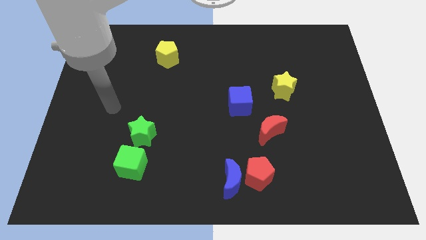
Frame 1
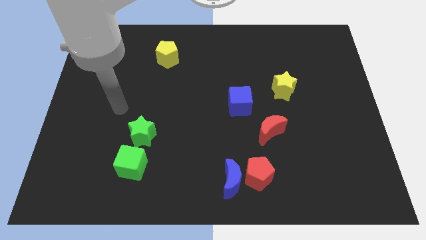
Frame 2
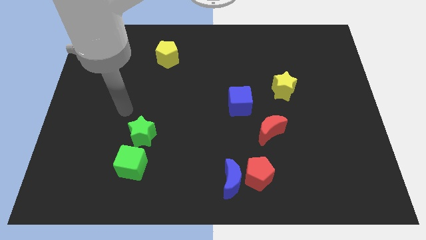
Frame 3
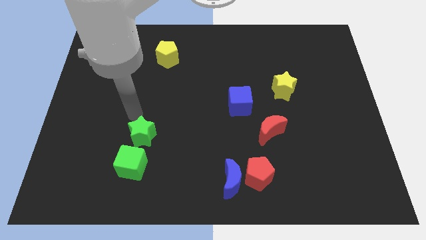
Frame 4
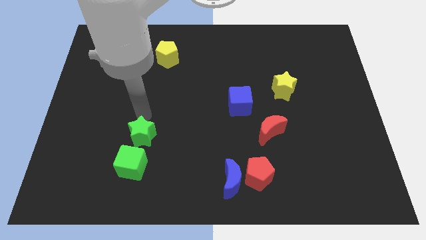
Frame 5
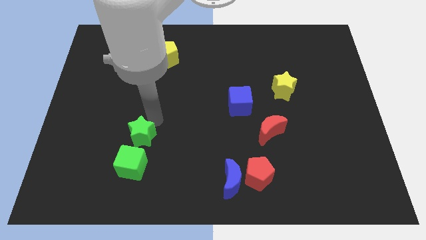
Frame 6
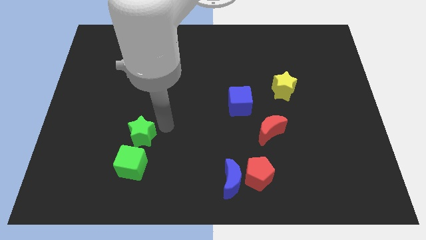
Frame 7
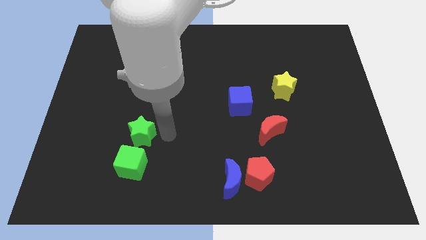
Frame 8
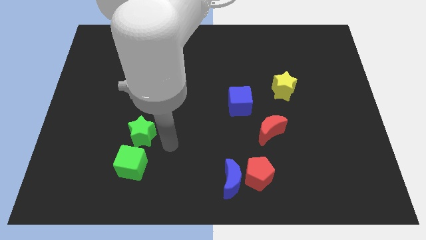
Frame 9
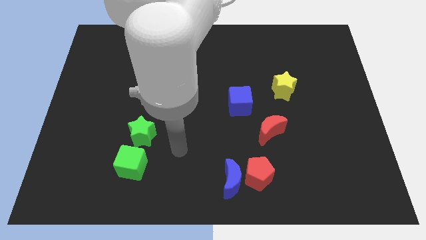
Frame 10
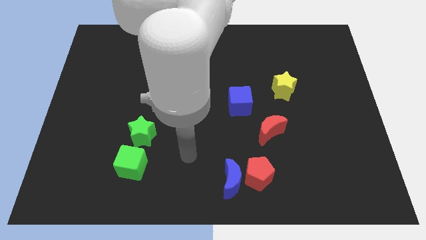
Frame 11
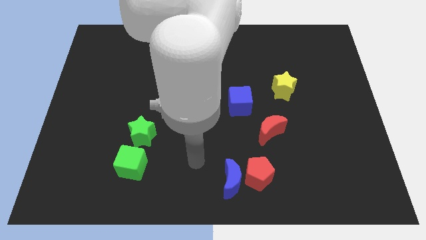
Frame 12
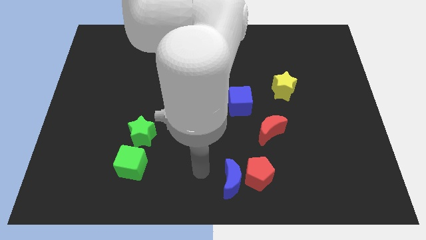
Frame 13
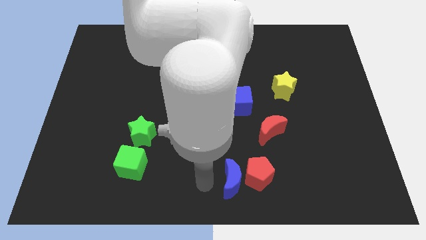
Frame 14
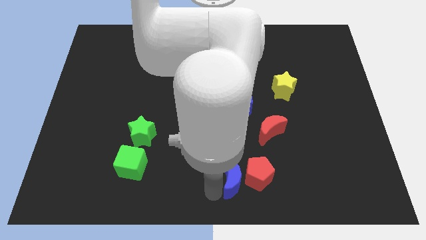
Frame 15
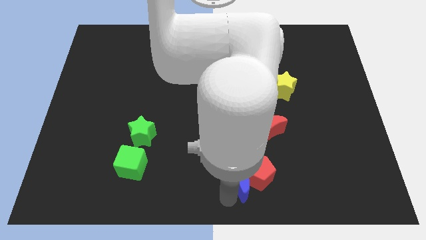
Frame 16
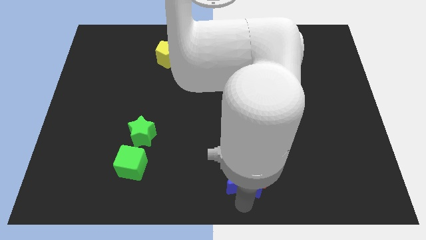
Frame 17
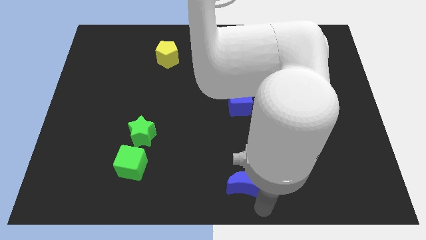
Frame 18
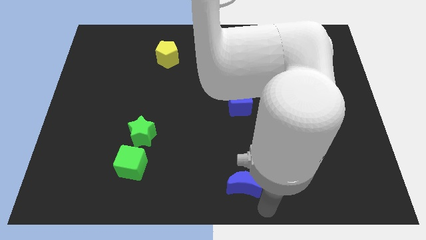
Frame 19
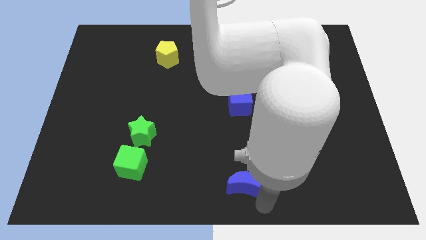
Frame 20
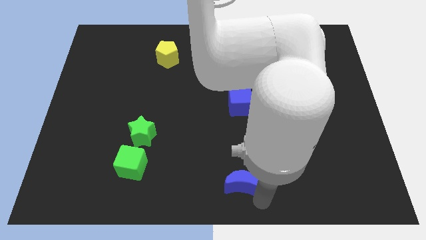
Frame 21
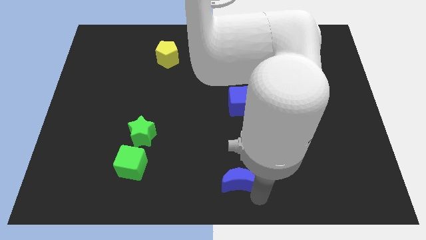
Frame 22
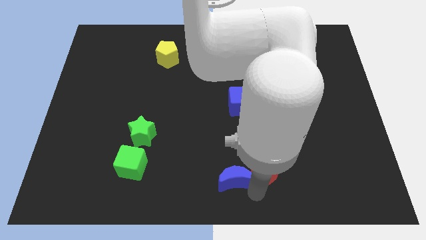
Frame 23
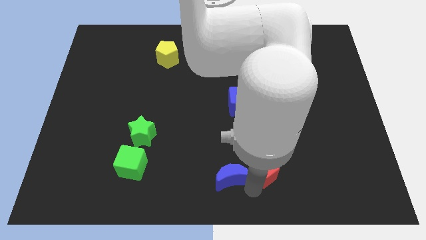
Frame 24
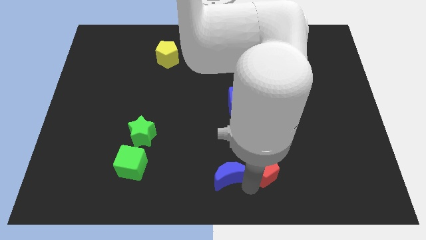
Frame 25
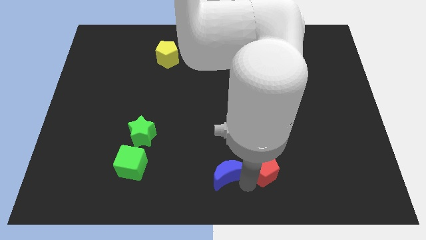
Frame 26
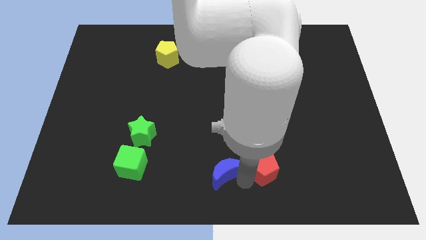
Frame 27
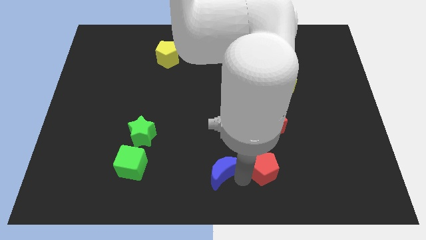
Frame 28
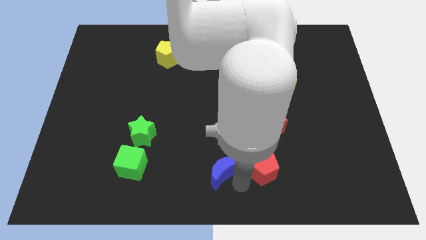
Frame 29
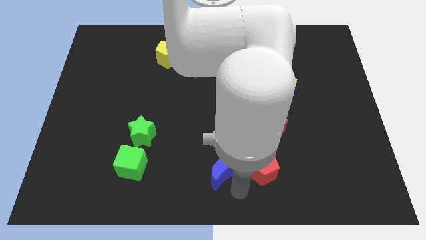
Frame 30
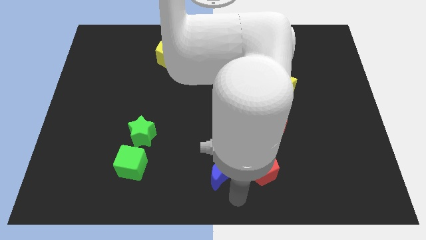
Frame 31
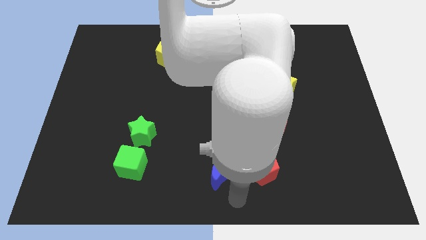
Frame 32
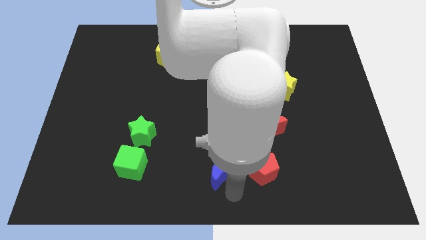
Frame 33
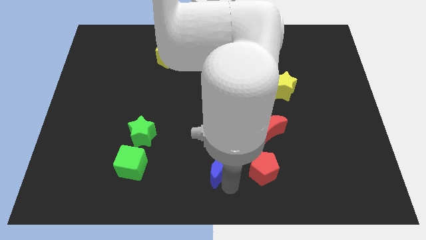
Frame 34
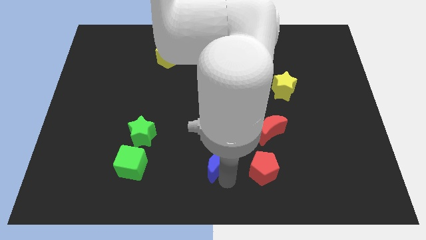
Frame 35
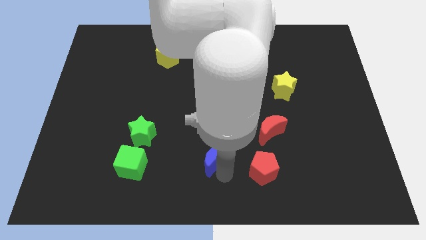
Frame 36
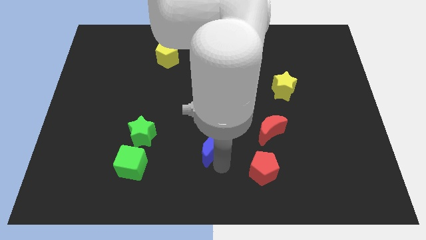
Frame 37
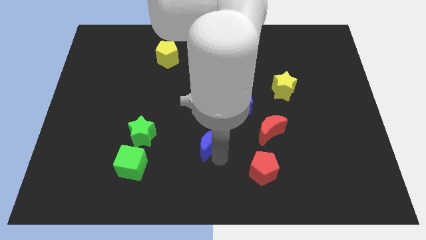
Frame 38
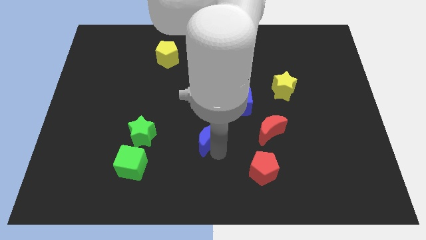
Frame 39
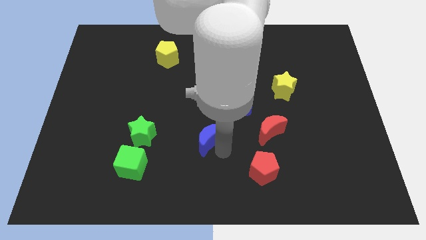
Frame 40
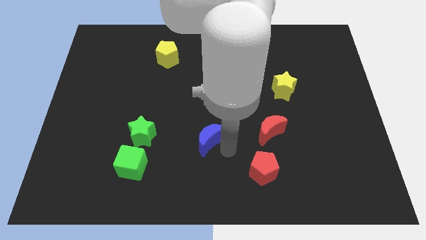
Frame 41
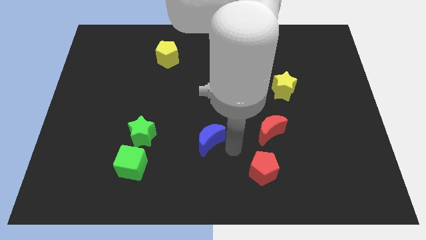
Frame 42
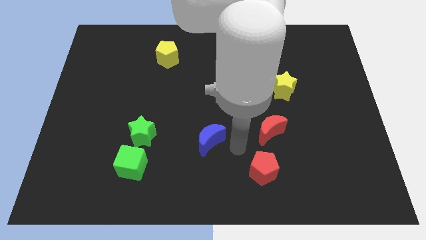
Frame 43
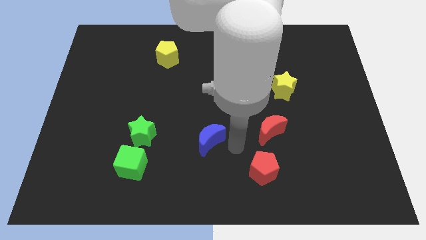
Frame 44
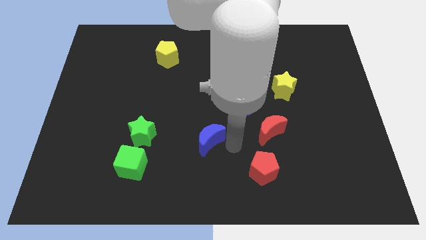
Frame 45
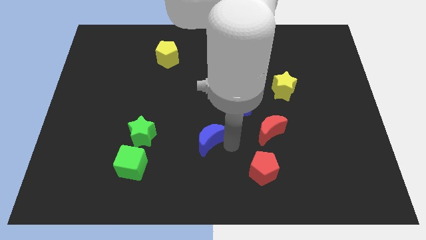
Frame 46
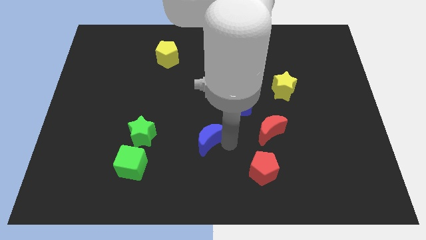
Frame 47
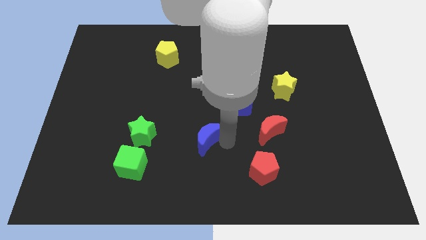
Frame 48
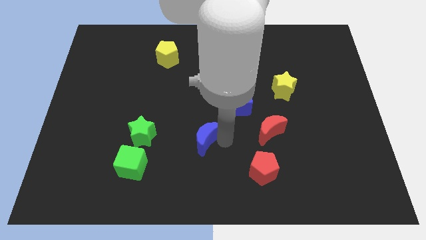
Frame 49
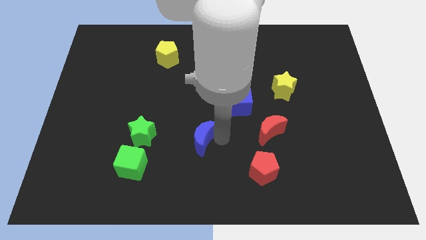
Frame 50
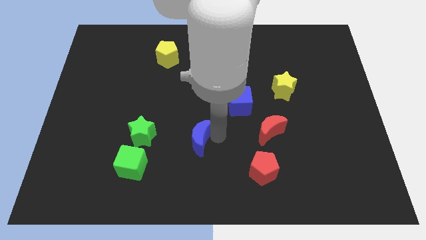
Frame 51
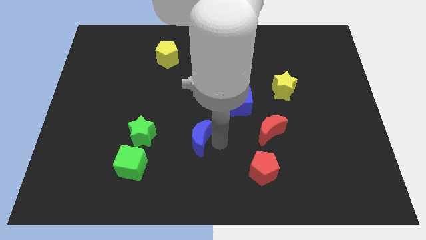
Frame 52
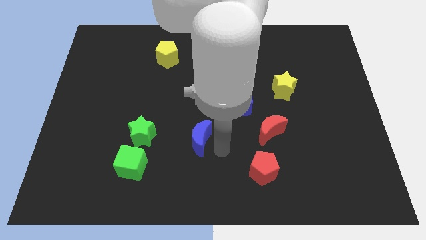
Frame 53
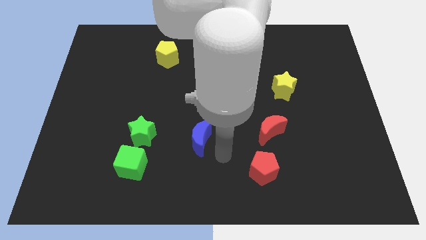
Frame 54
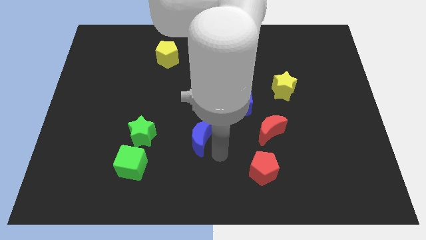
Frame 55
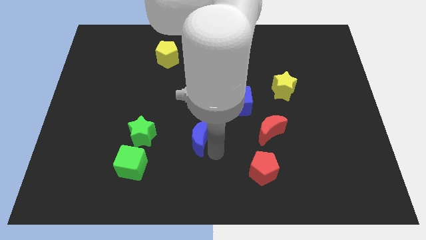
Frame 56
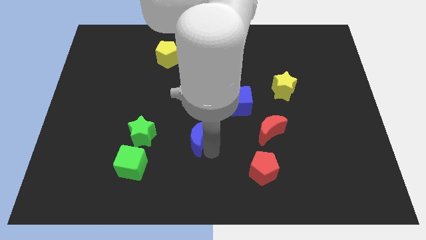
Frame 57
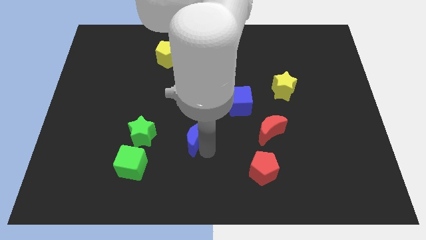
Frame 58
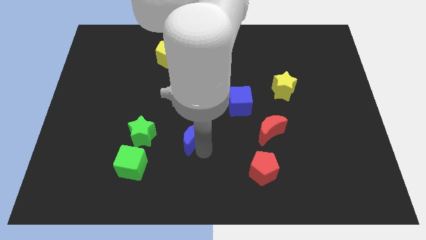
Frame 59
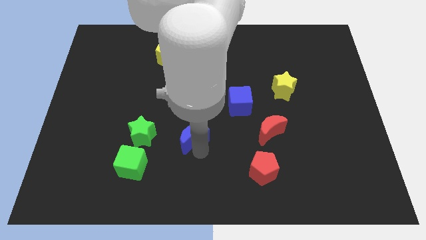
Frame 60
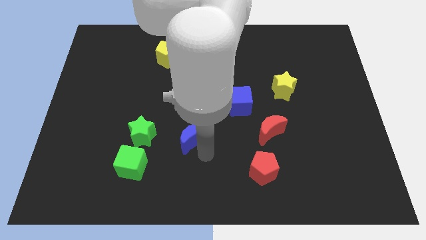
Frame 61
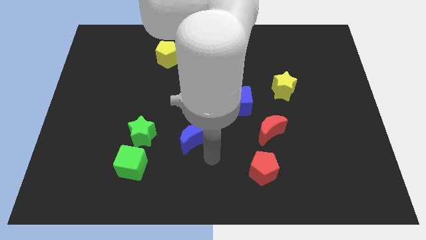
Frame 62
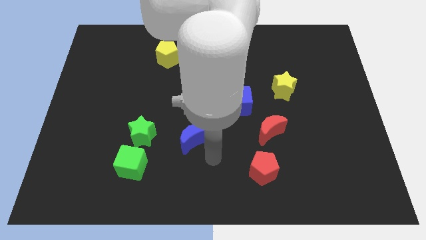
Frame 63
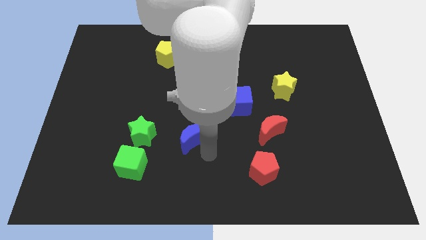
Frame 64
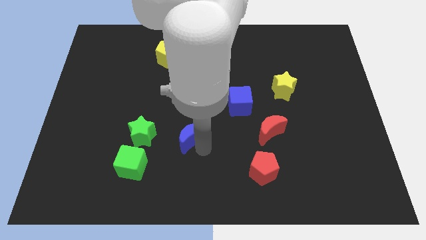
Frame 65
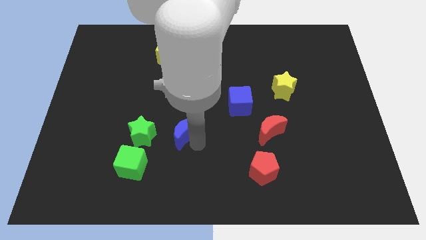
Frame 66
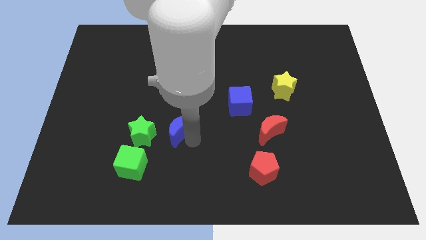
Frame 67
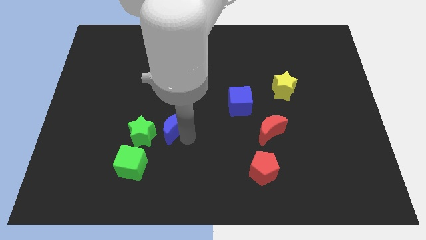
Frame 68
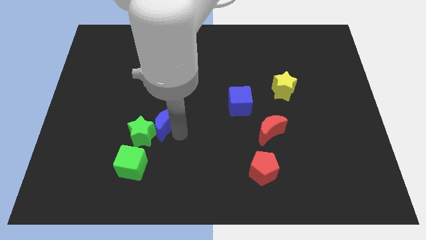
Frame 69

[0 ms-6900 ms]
push the blue moon upwards and left diagonally

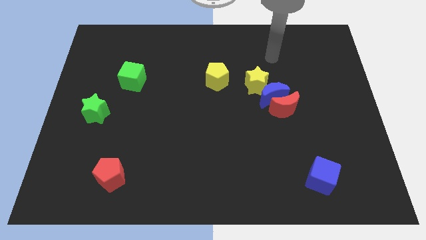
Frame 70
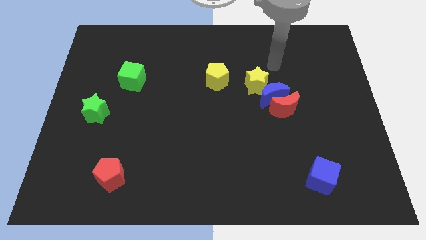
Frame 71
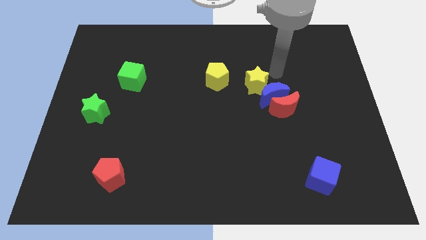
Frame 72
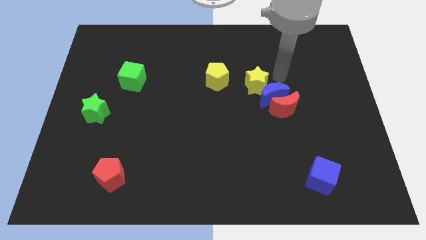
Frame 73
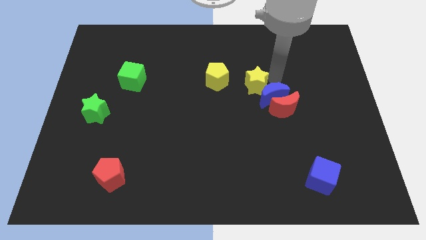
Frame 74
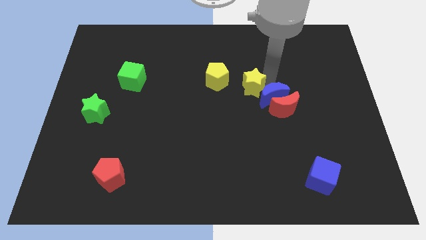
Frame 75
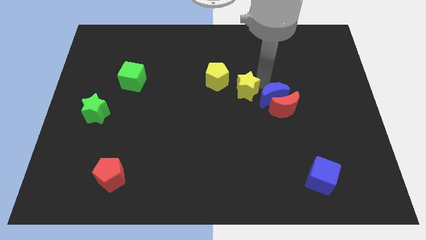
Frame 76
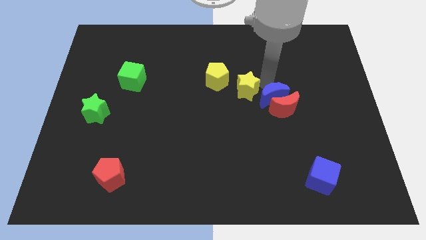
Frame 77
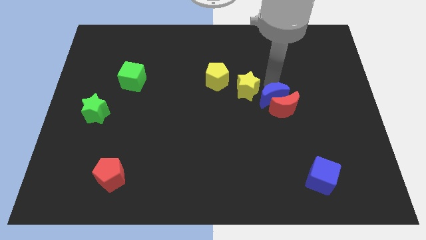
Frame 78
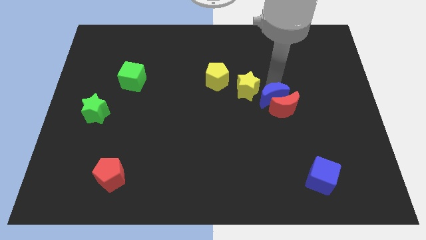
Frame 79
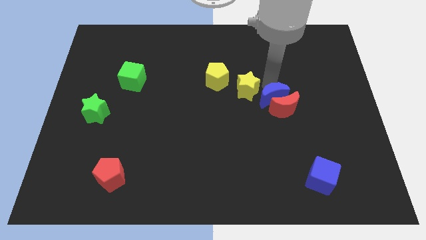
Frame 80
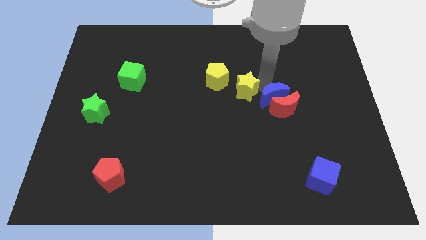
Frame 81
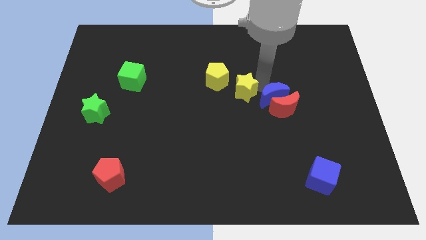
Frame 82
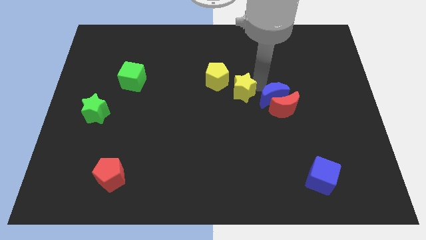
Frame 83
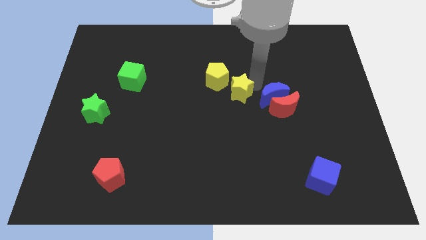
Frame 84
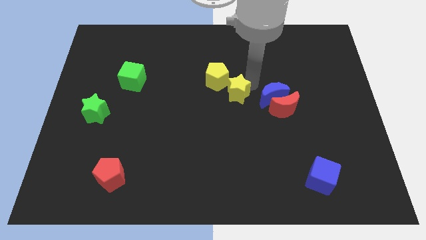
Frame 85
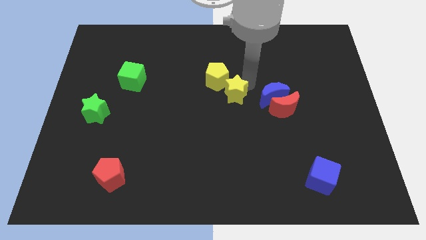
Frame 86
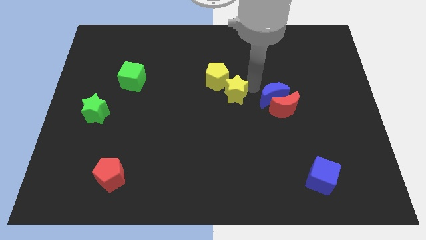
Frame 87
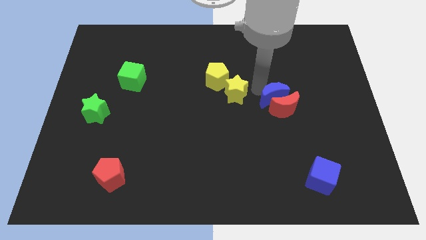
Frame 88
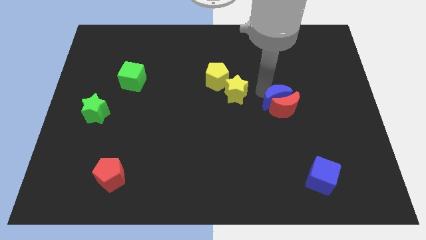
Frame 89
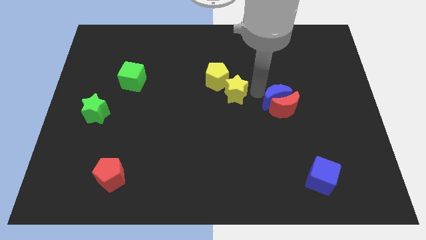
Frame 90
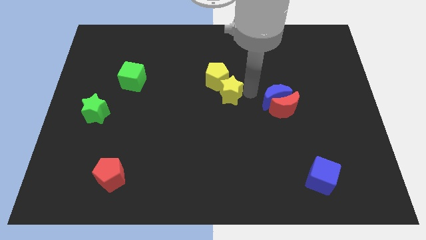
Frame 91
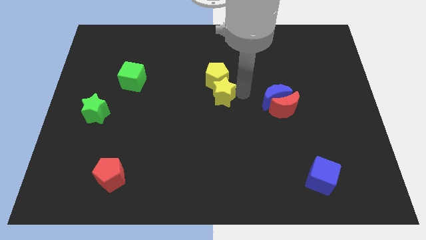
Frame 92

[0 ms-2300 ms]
push the yellow star to the left somewhat
